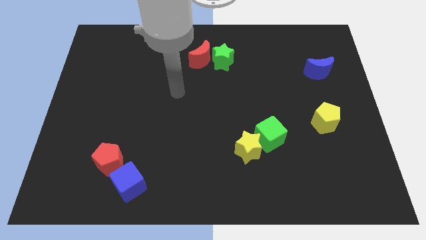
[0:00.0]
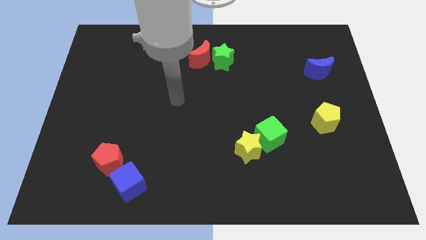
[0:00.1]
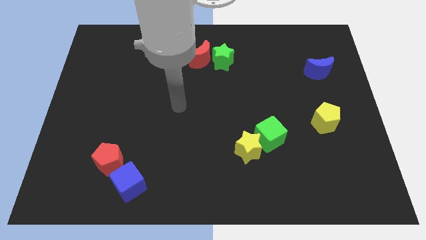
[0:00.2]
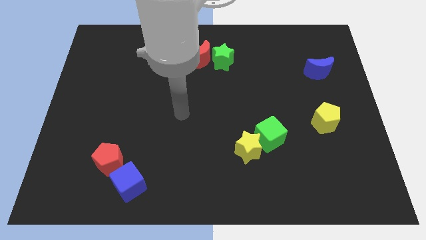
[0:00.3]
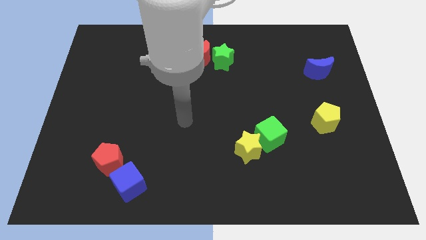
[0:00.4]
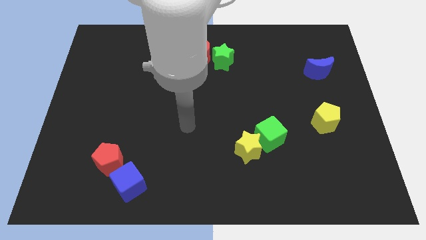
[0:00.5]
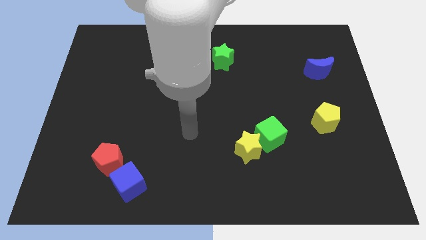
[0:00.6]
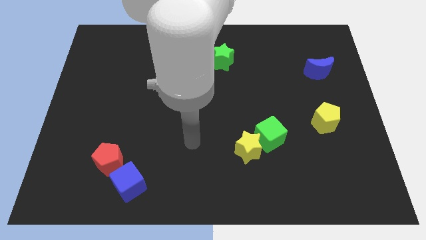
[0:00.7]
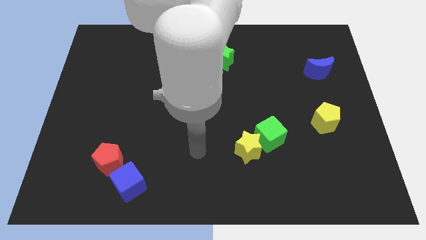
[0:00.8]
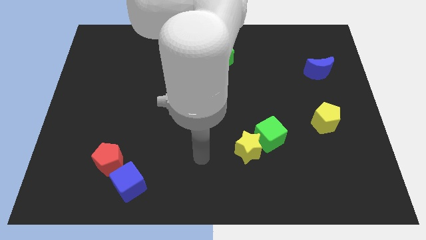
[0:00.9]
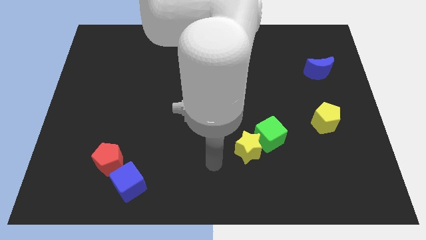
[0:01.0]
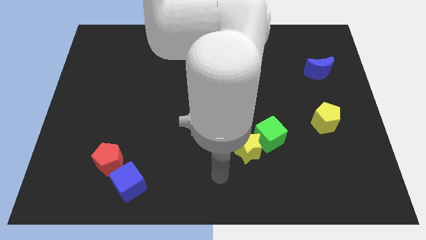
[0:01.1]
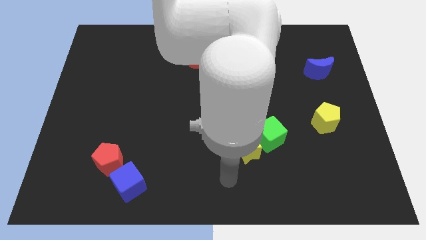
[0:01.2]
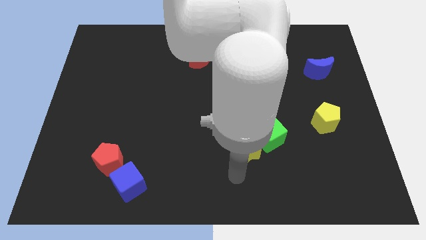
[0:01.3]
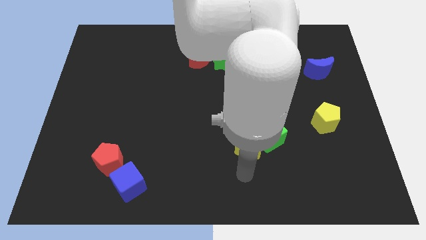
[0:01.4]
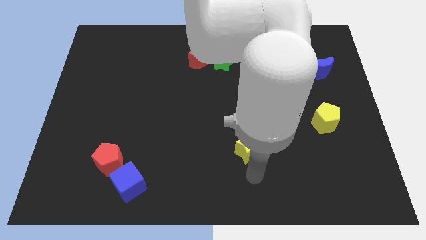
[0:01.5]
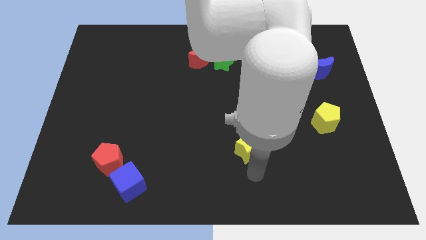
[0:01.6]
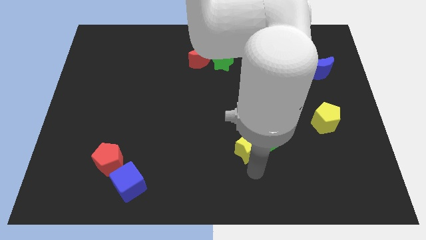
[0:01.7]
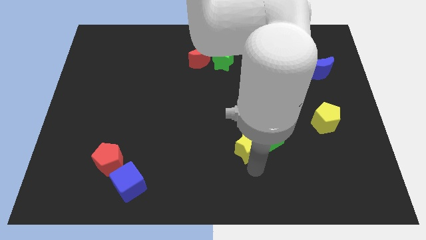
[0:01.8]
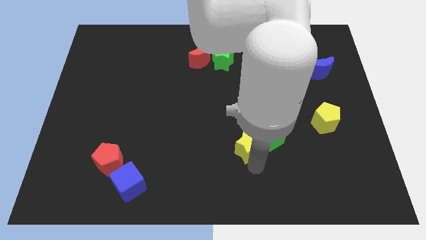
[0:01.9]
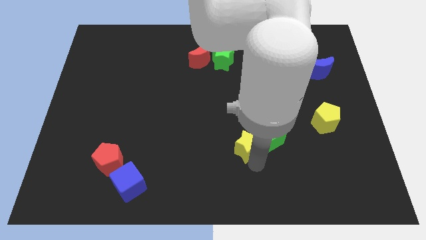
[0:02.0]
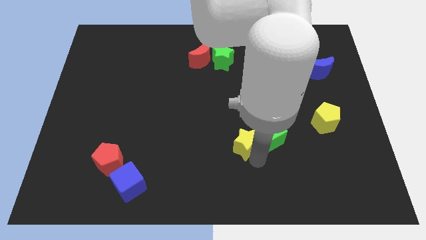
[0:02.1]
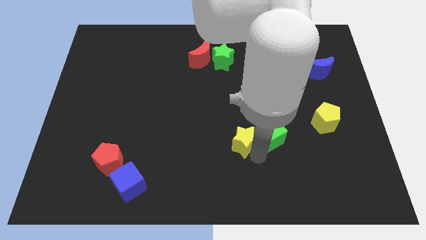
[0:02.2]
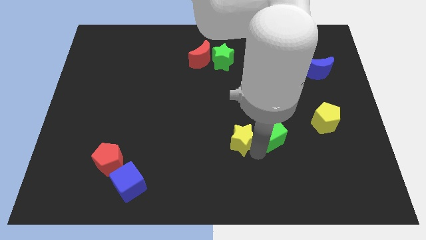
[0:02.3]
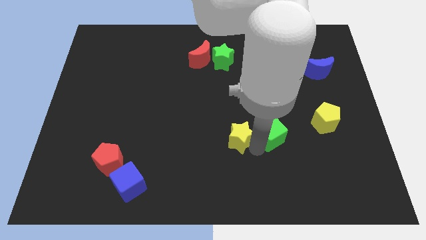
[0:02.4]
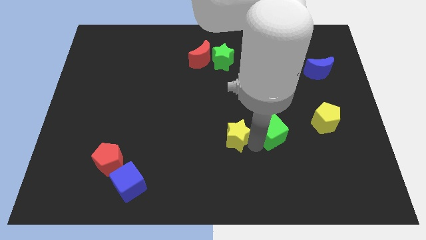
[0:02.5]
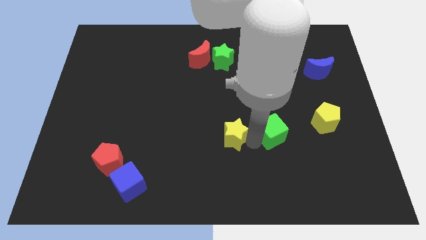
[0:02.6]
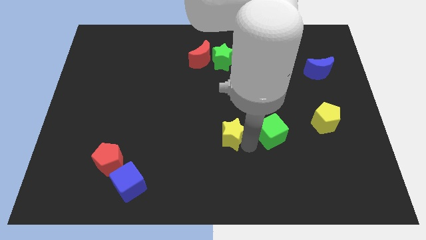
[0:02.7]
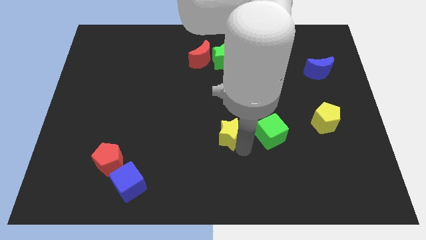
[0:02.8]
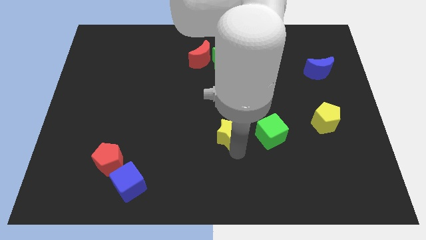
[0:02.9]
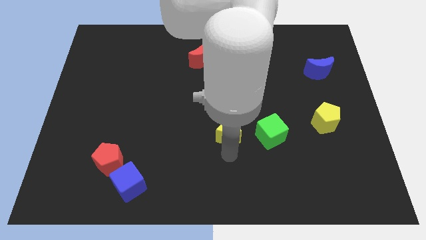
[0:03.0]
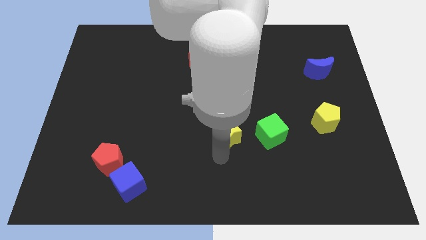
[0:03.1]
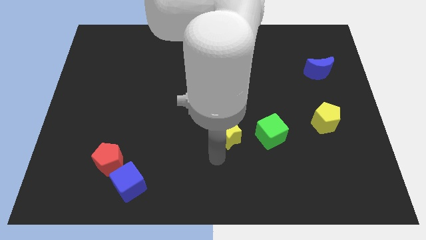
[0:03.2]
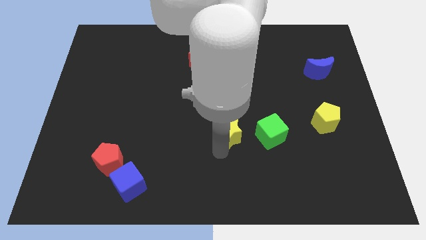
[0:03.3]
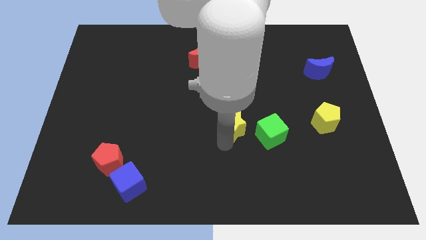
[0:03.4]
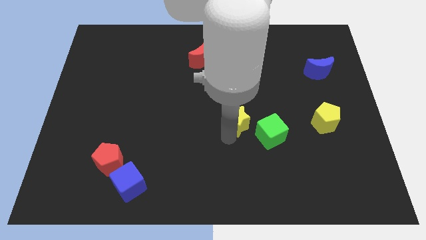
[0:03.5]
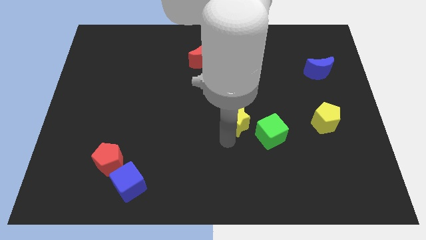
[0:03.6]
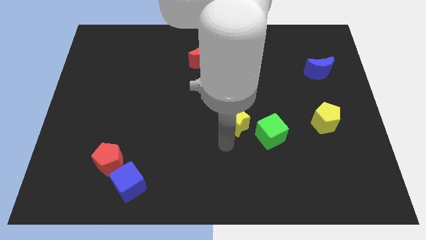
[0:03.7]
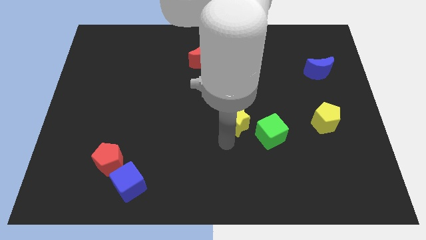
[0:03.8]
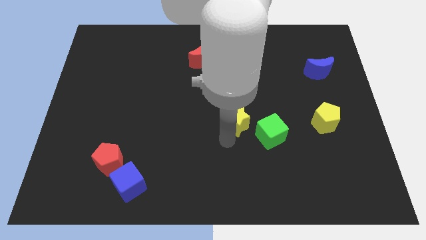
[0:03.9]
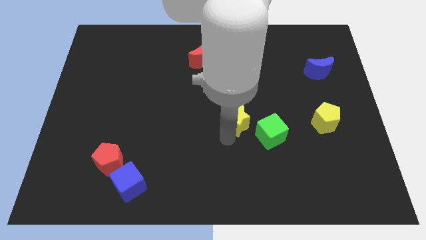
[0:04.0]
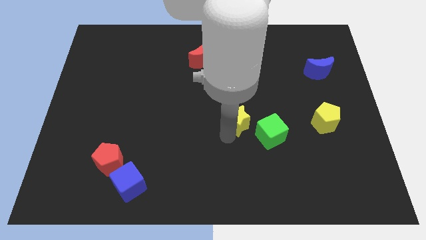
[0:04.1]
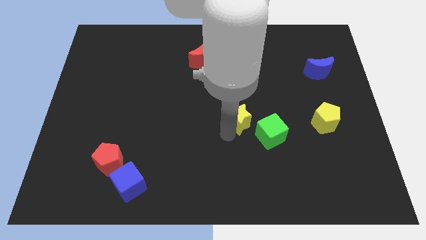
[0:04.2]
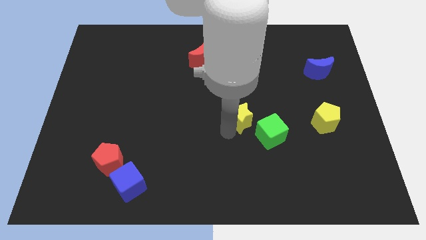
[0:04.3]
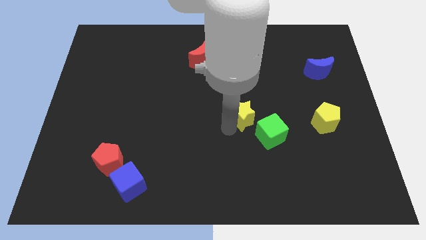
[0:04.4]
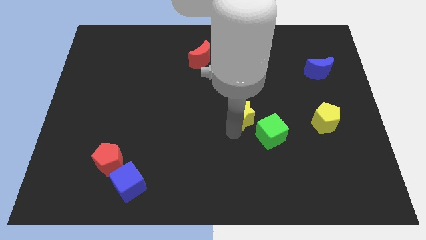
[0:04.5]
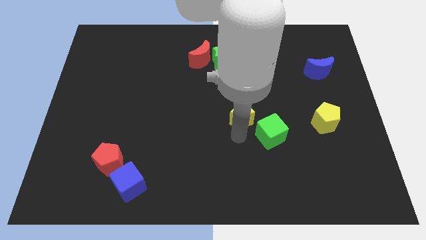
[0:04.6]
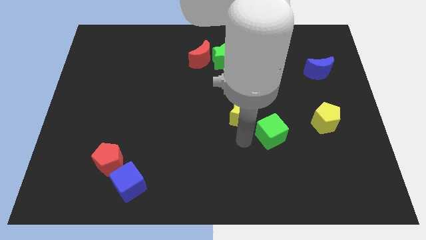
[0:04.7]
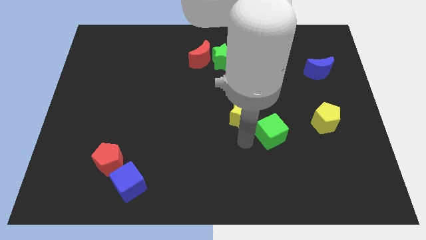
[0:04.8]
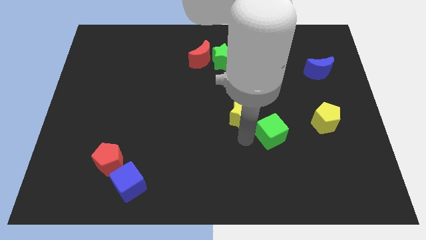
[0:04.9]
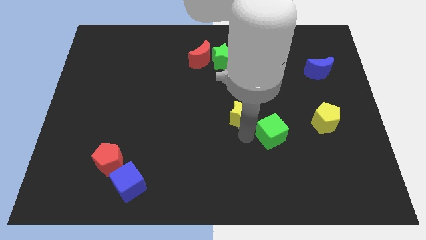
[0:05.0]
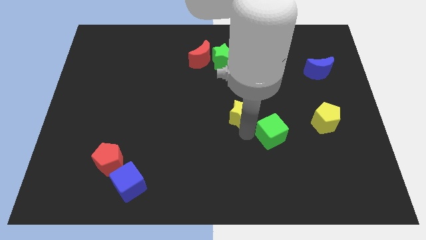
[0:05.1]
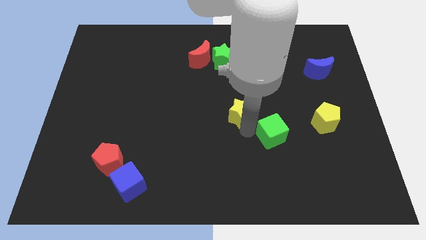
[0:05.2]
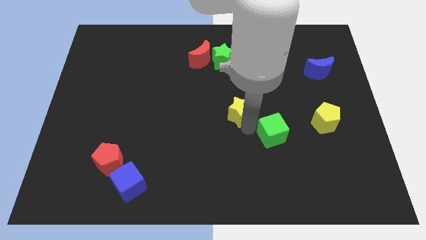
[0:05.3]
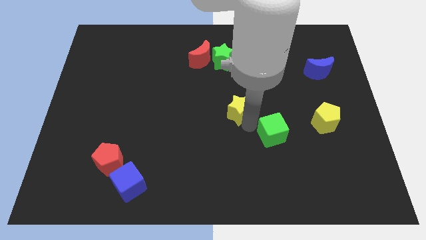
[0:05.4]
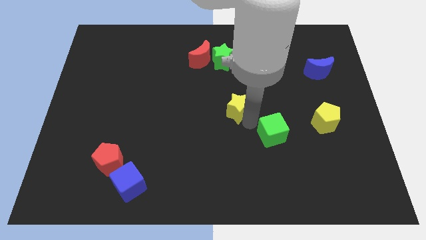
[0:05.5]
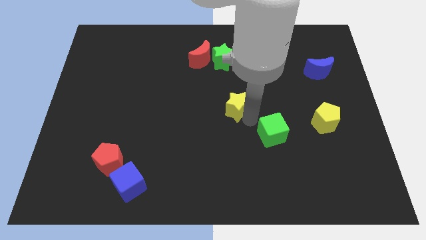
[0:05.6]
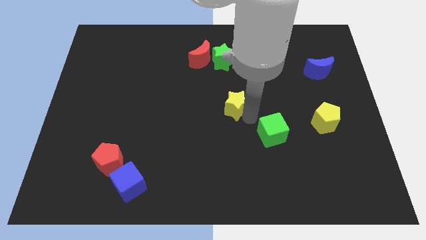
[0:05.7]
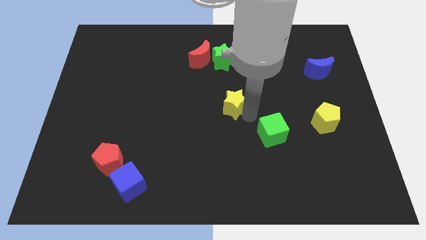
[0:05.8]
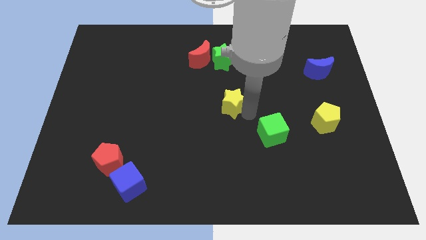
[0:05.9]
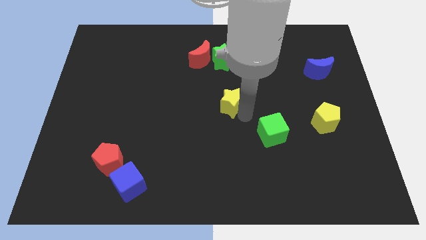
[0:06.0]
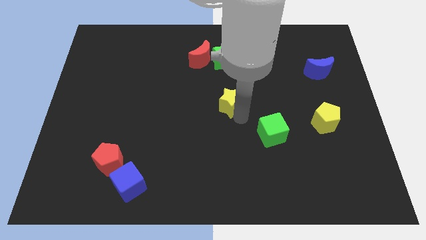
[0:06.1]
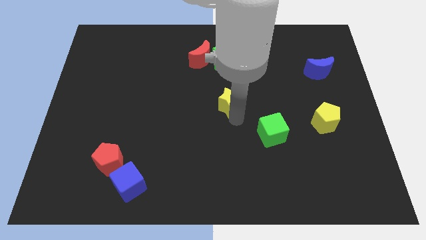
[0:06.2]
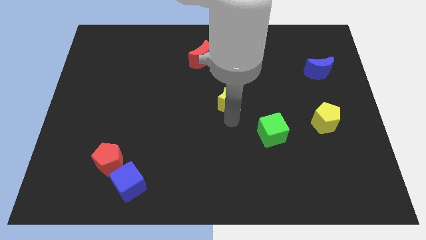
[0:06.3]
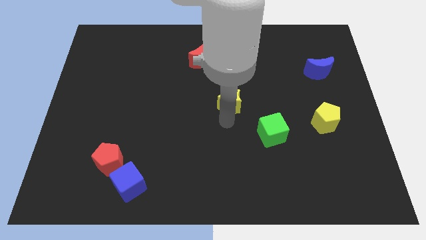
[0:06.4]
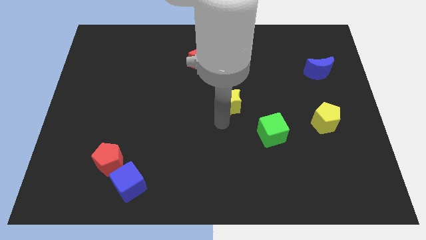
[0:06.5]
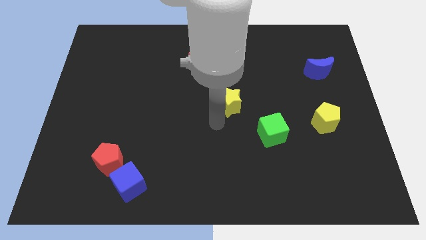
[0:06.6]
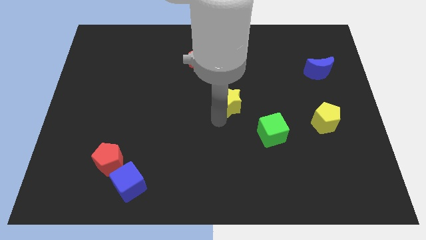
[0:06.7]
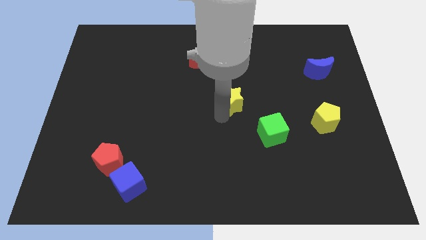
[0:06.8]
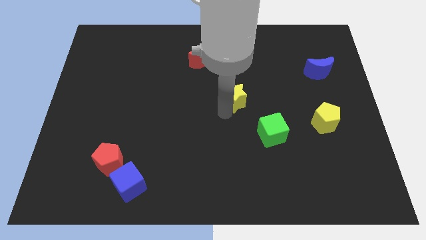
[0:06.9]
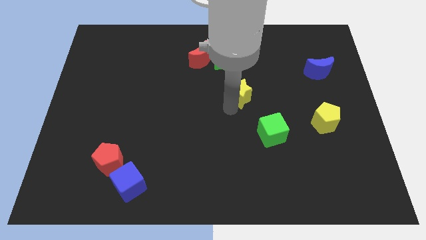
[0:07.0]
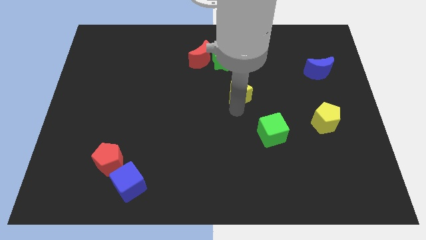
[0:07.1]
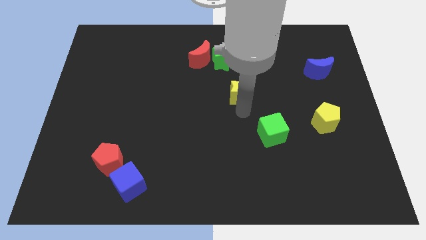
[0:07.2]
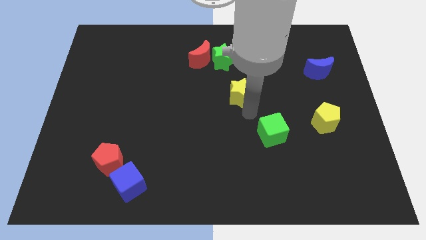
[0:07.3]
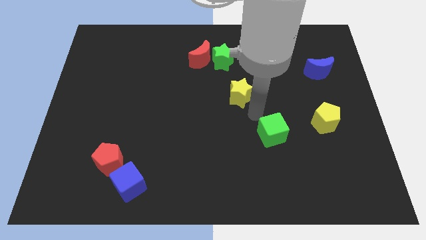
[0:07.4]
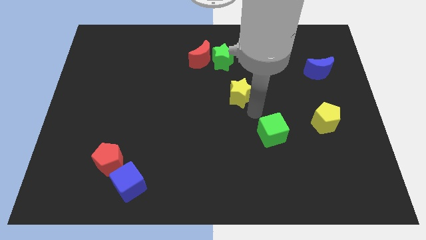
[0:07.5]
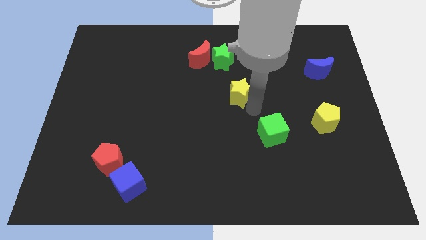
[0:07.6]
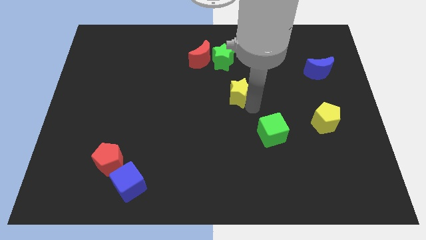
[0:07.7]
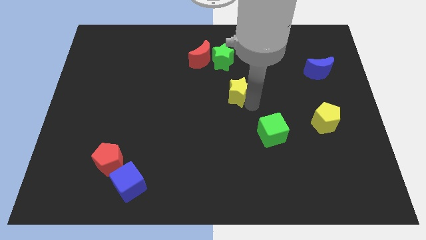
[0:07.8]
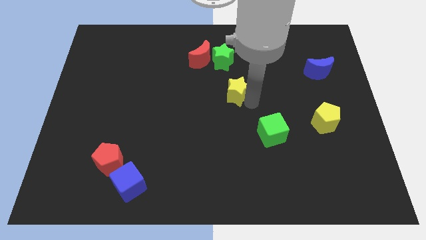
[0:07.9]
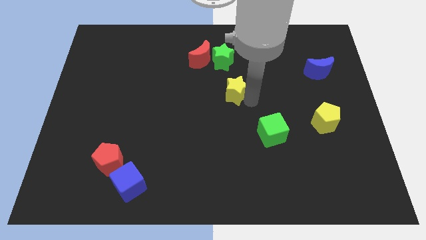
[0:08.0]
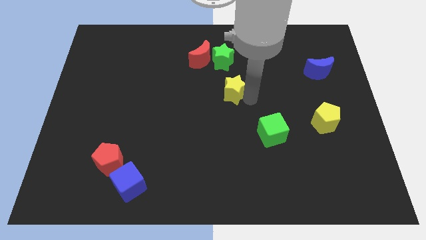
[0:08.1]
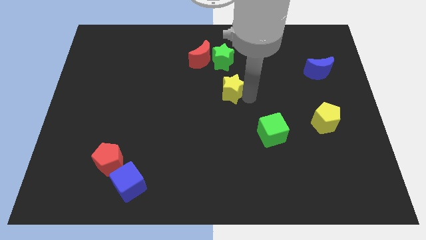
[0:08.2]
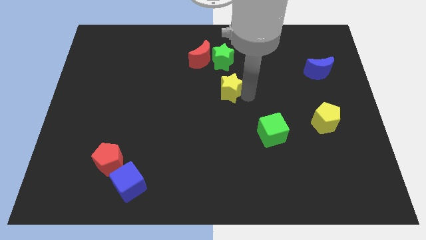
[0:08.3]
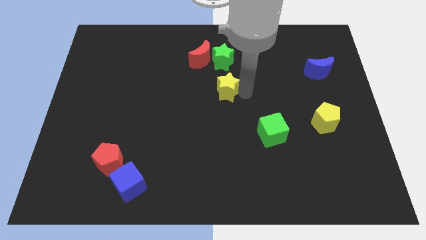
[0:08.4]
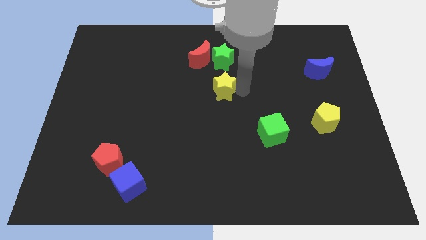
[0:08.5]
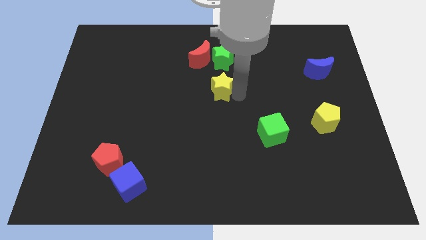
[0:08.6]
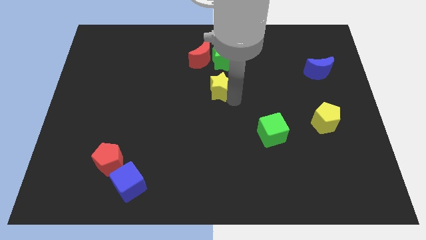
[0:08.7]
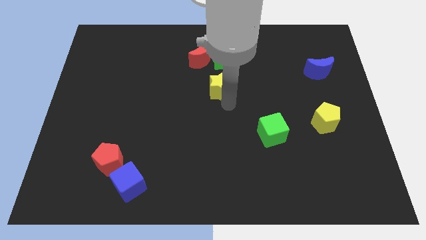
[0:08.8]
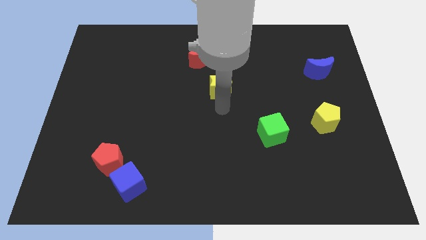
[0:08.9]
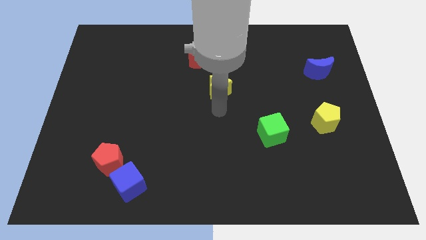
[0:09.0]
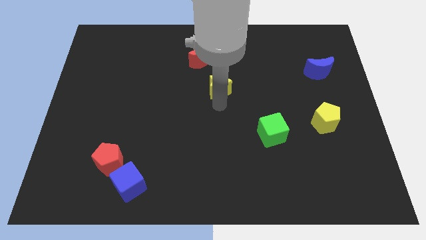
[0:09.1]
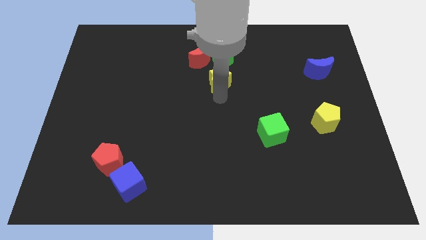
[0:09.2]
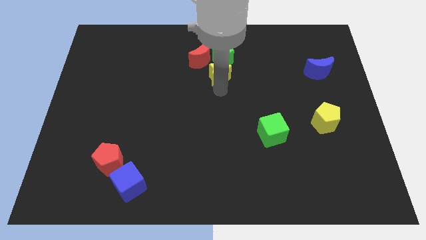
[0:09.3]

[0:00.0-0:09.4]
slide the yellow star close to the green star
